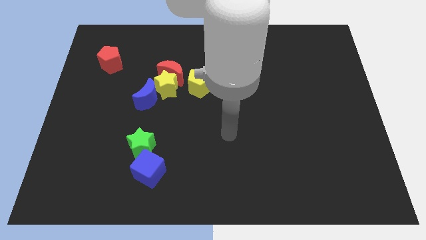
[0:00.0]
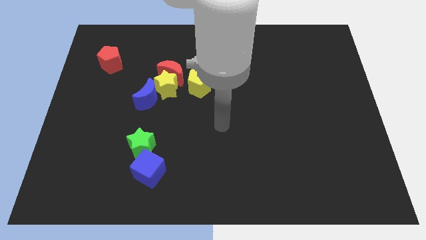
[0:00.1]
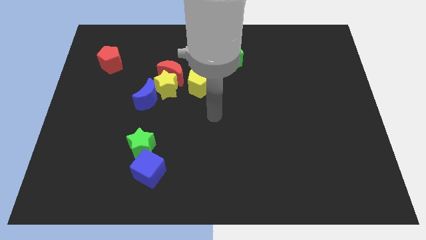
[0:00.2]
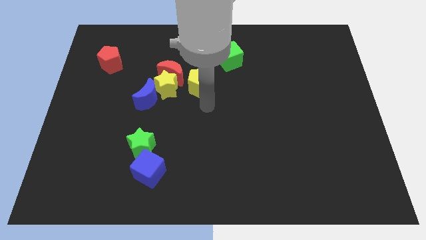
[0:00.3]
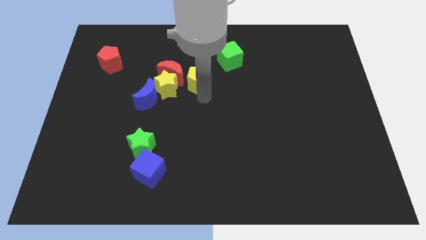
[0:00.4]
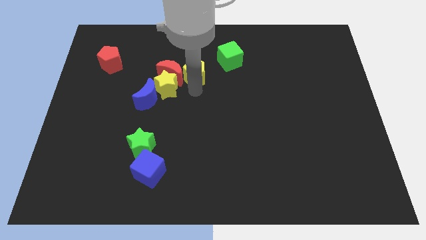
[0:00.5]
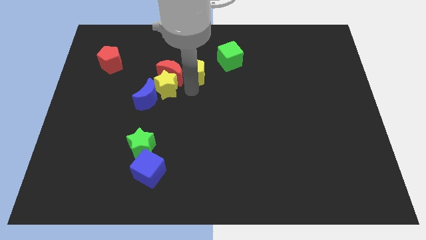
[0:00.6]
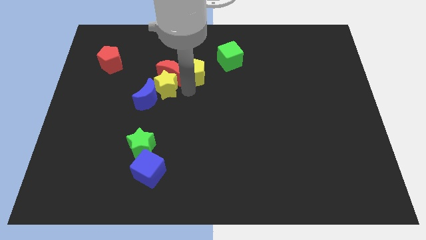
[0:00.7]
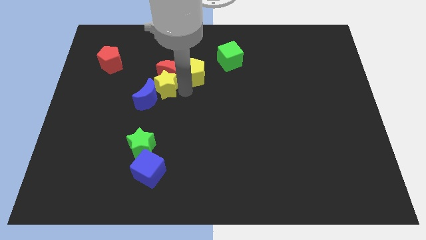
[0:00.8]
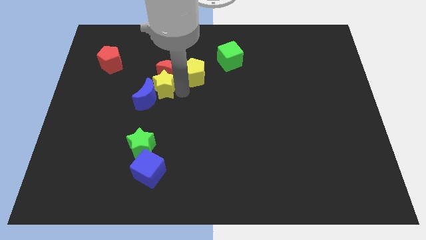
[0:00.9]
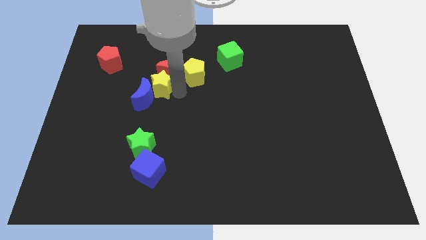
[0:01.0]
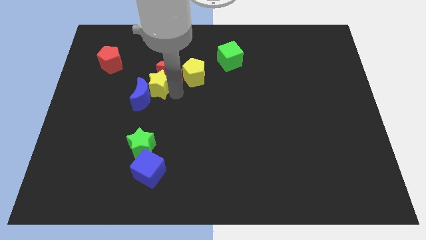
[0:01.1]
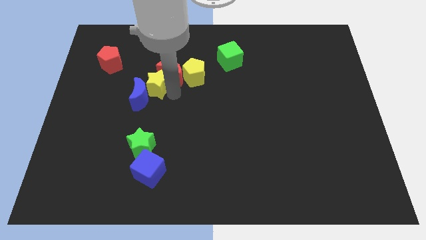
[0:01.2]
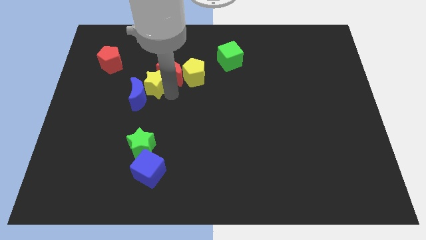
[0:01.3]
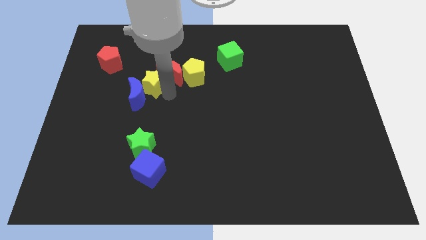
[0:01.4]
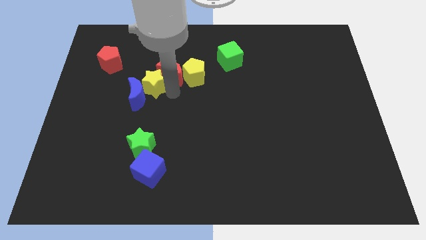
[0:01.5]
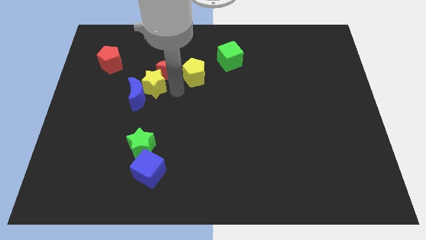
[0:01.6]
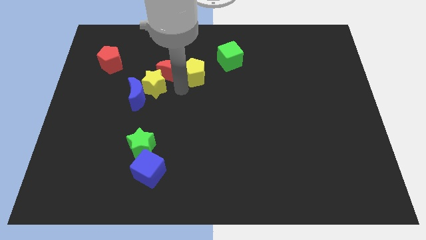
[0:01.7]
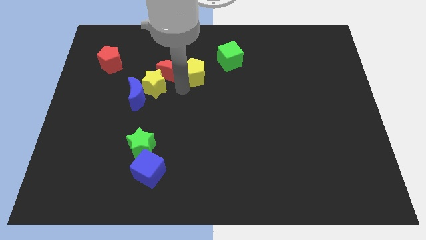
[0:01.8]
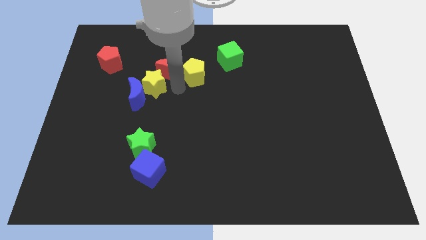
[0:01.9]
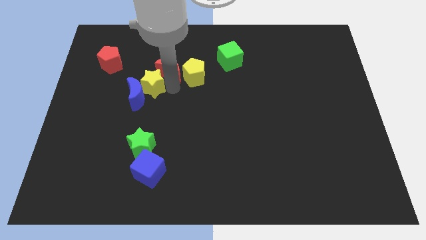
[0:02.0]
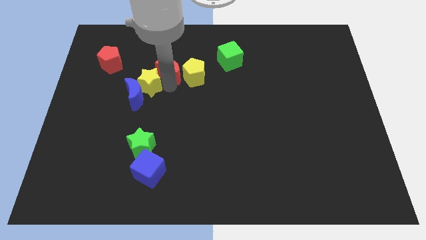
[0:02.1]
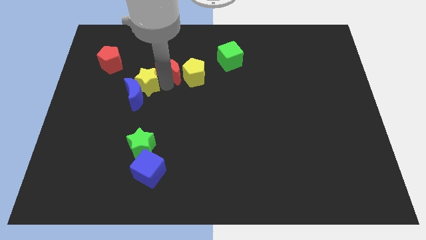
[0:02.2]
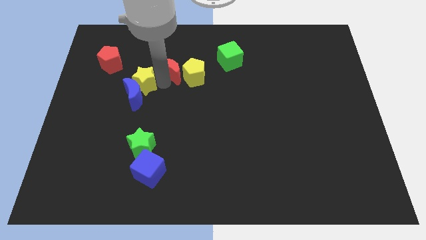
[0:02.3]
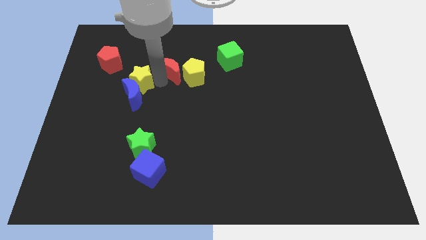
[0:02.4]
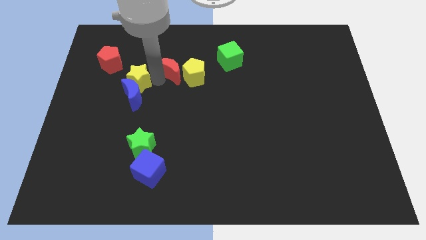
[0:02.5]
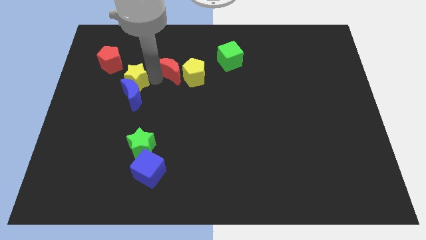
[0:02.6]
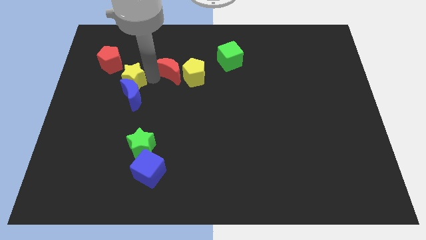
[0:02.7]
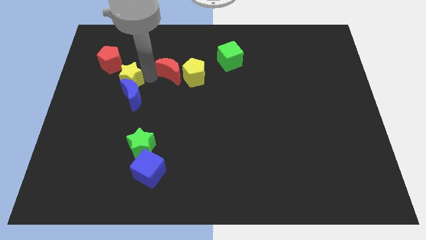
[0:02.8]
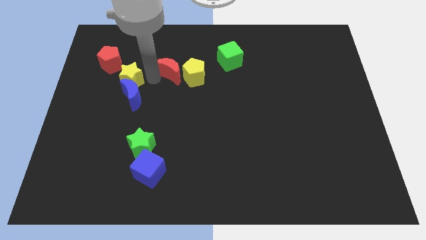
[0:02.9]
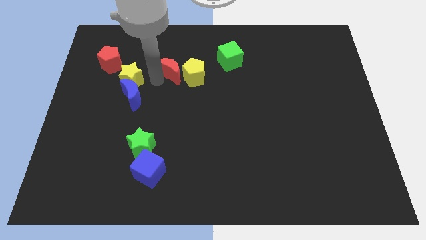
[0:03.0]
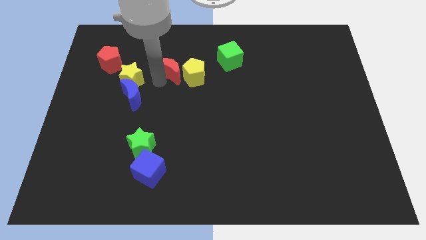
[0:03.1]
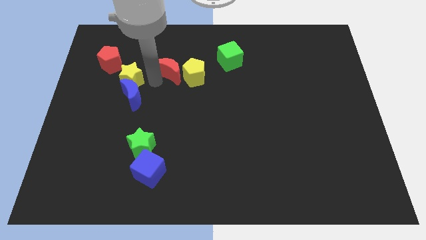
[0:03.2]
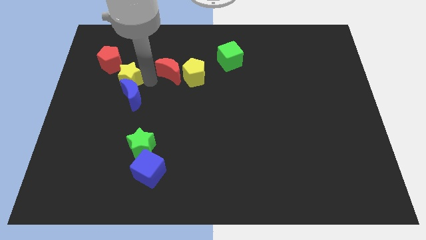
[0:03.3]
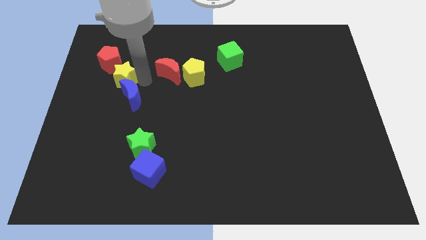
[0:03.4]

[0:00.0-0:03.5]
separate the yellow star from the red moon, blue moon, and yellow pentagon

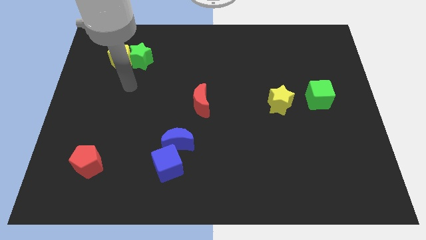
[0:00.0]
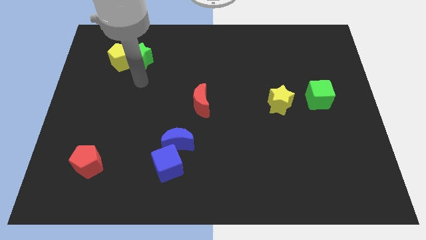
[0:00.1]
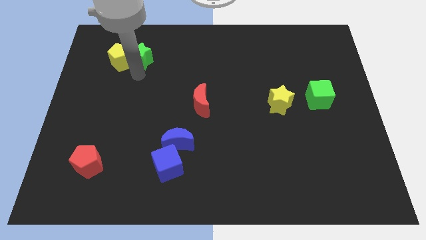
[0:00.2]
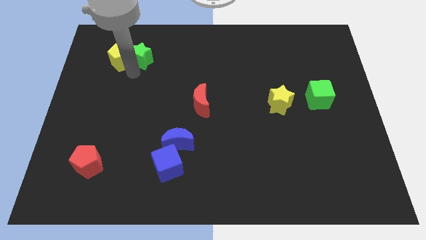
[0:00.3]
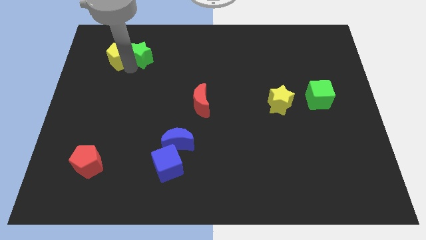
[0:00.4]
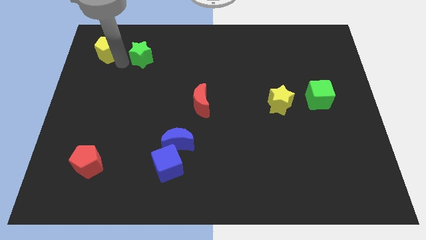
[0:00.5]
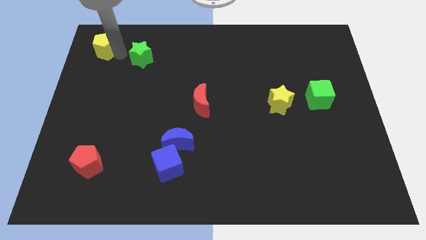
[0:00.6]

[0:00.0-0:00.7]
pull the green star apart from the yellow pentagon

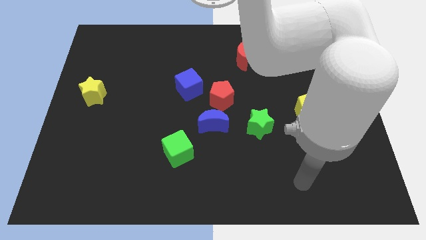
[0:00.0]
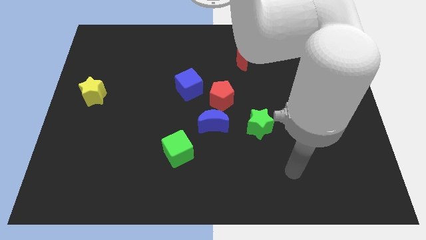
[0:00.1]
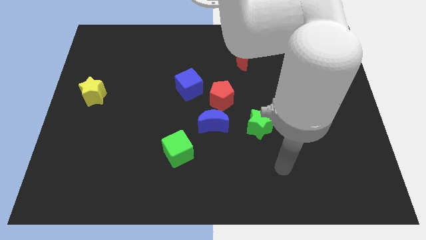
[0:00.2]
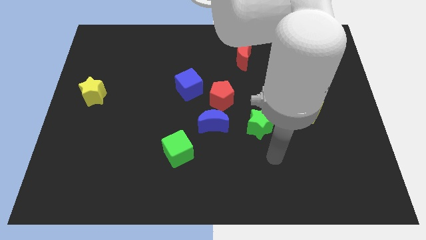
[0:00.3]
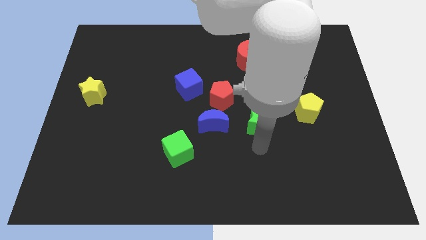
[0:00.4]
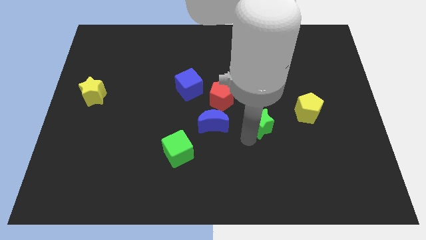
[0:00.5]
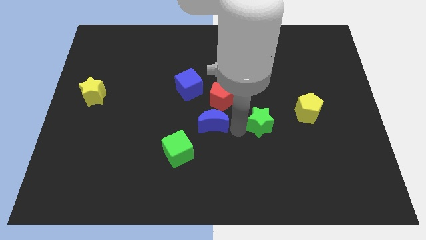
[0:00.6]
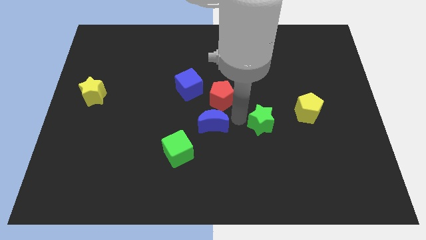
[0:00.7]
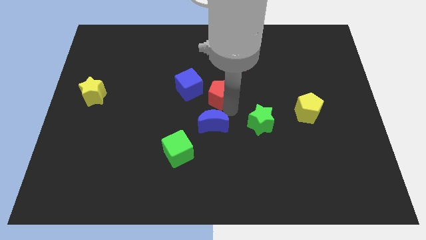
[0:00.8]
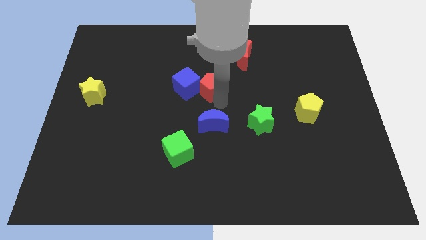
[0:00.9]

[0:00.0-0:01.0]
separate the blue moon from the red pentagon

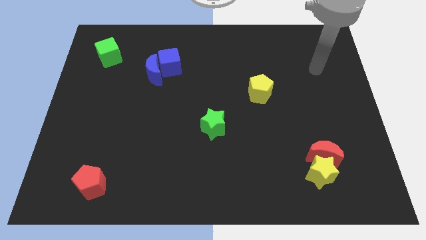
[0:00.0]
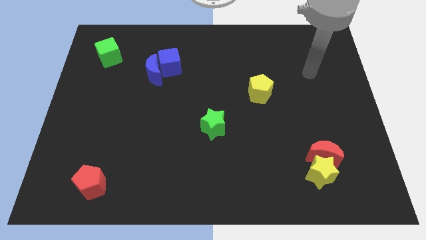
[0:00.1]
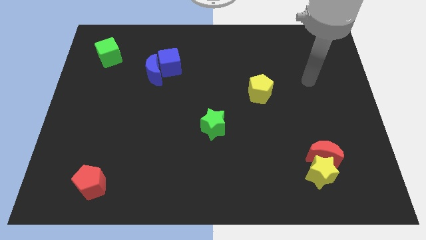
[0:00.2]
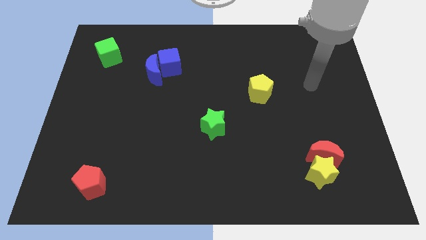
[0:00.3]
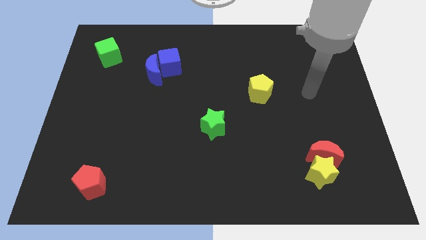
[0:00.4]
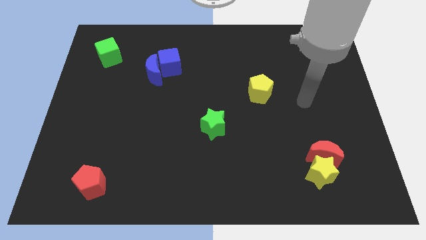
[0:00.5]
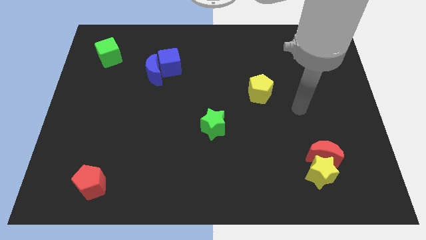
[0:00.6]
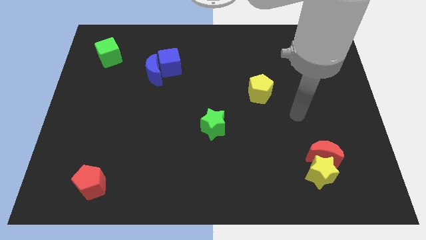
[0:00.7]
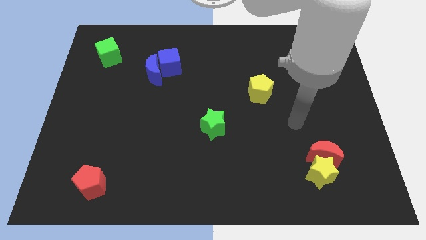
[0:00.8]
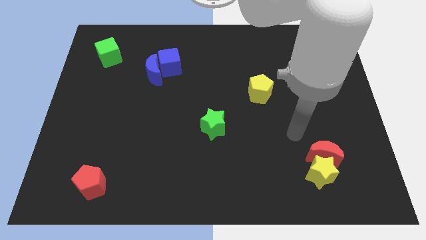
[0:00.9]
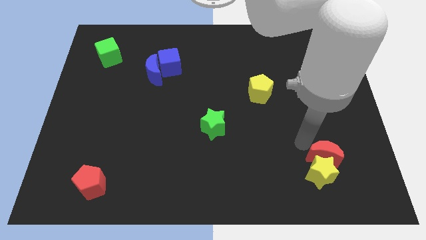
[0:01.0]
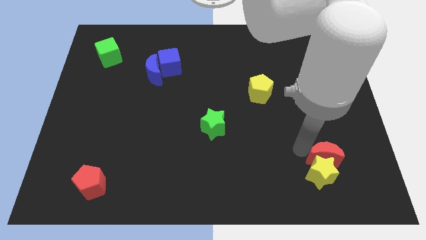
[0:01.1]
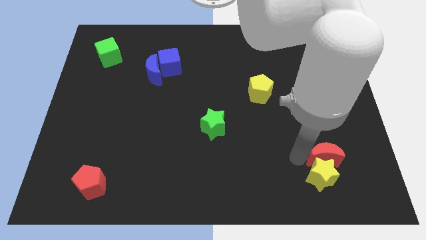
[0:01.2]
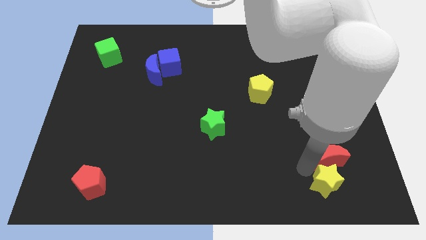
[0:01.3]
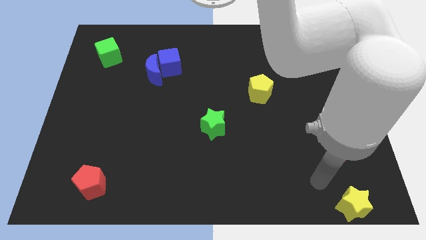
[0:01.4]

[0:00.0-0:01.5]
pull the red moon apart from the yellow star

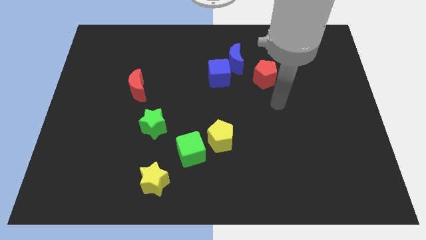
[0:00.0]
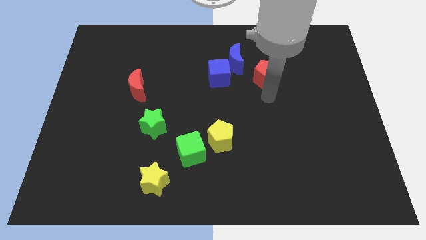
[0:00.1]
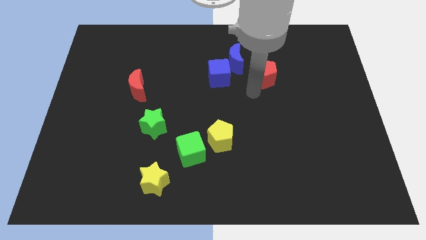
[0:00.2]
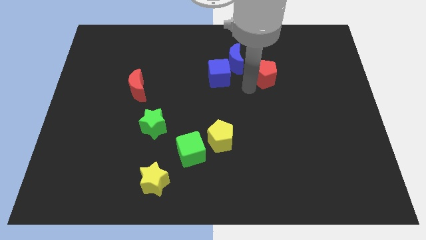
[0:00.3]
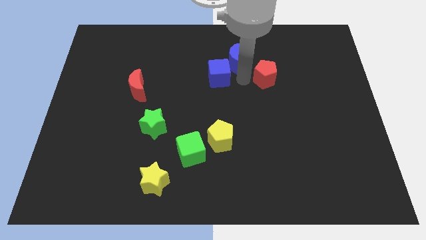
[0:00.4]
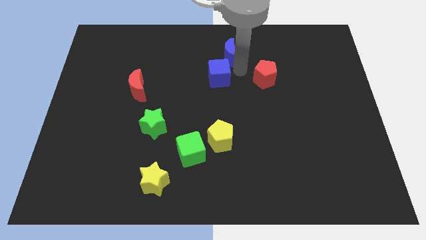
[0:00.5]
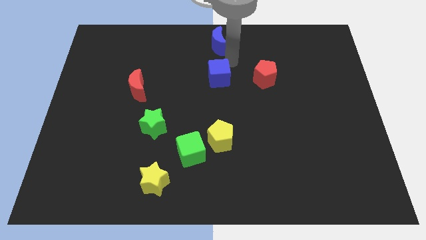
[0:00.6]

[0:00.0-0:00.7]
separate the blue cube from the blue moon

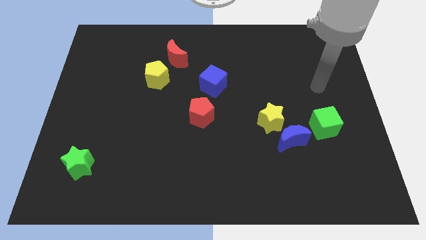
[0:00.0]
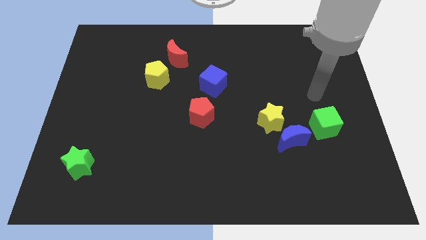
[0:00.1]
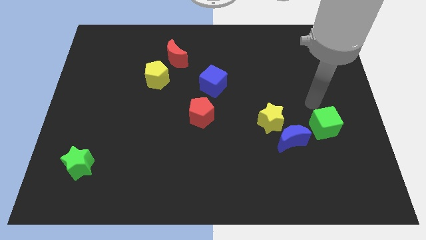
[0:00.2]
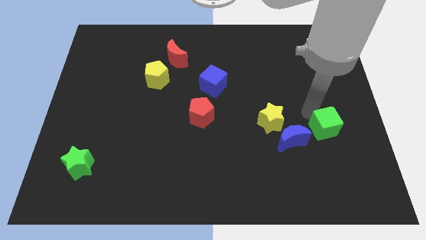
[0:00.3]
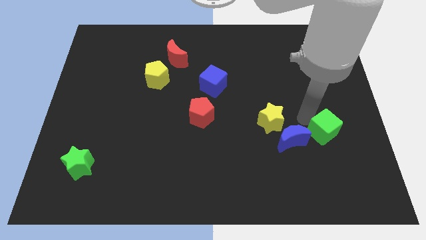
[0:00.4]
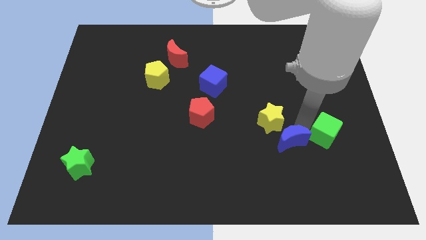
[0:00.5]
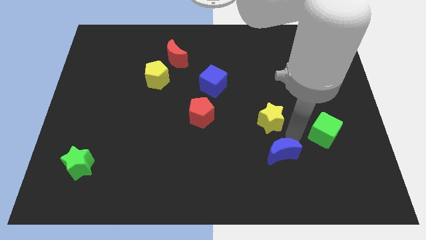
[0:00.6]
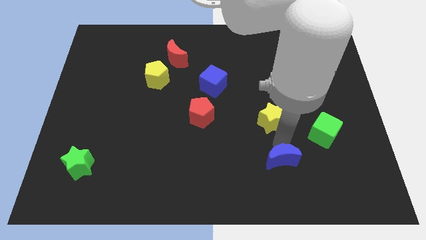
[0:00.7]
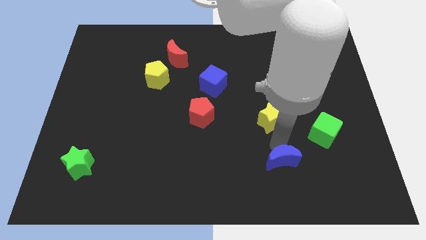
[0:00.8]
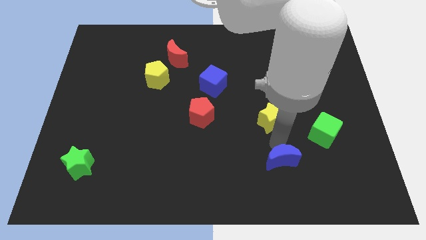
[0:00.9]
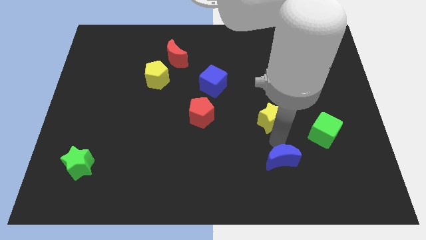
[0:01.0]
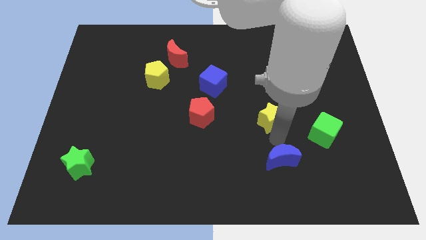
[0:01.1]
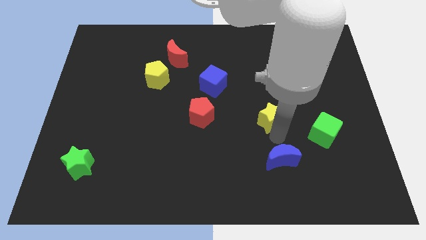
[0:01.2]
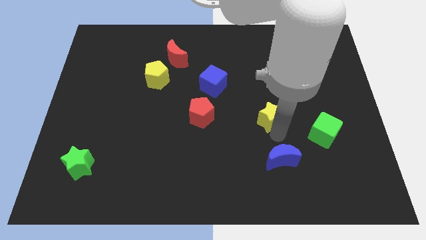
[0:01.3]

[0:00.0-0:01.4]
separate the yellow star from the blue moon

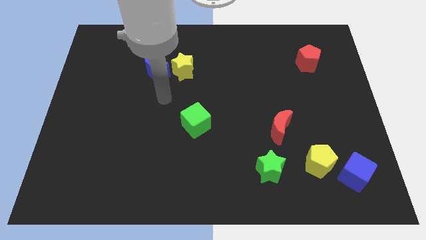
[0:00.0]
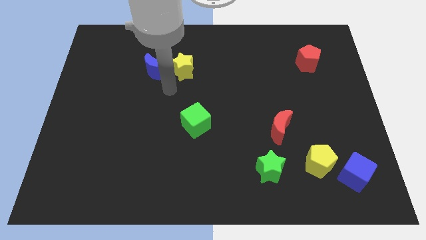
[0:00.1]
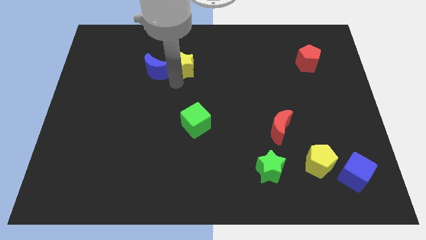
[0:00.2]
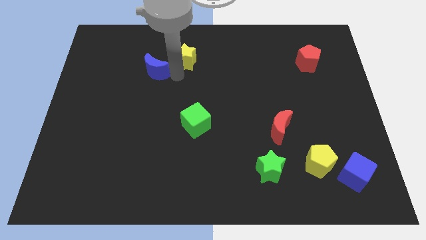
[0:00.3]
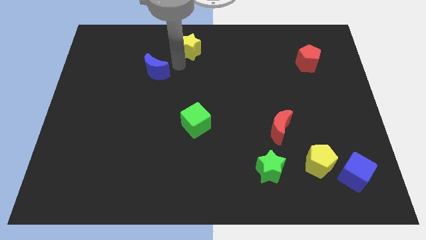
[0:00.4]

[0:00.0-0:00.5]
separate the blue moon from the yellow star
